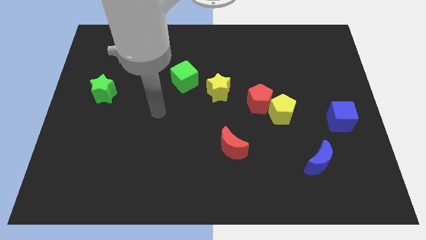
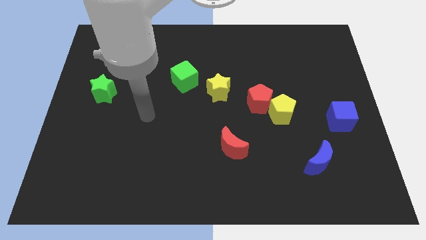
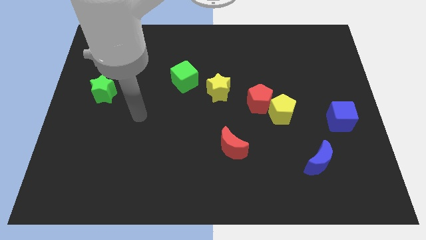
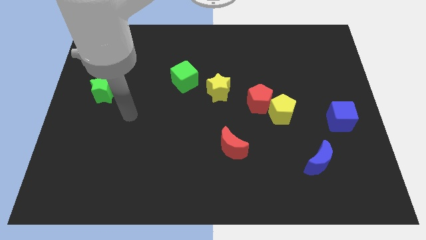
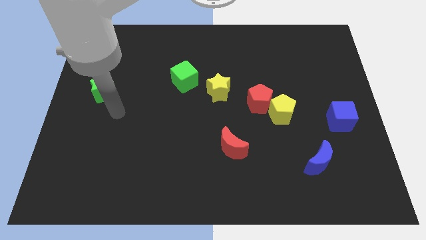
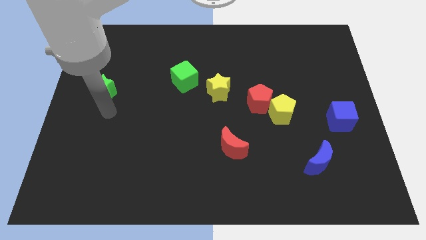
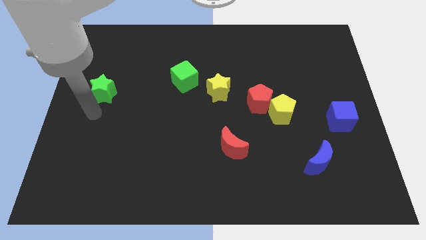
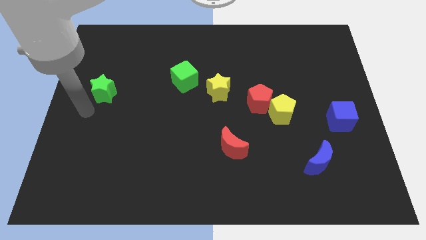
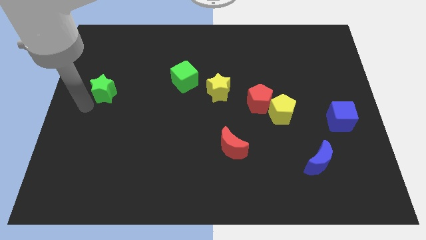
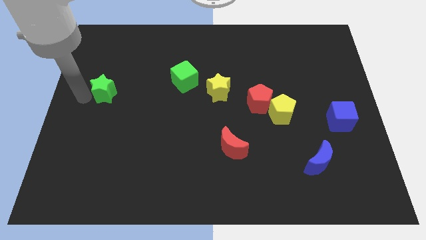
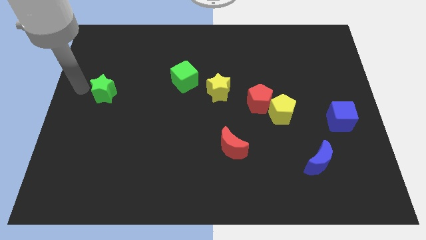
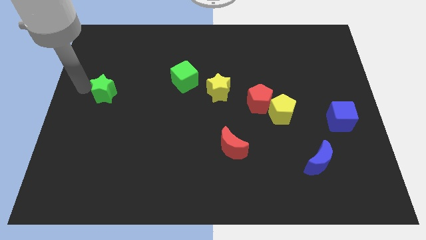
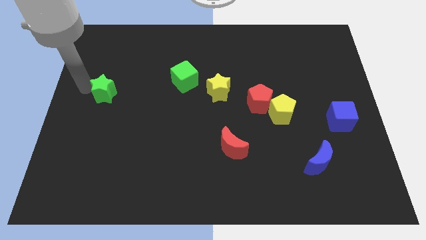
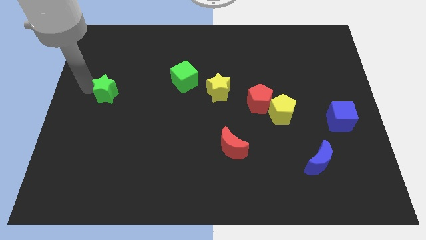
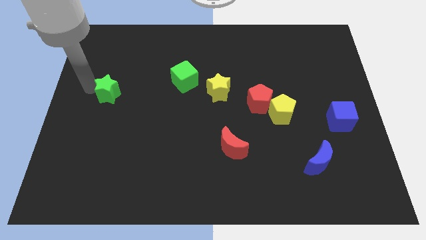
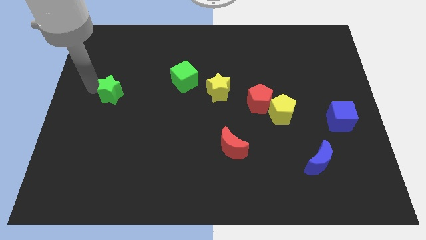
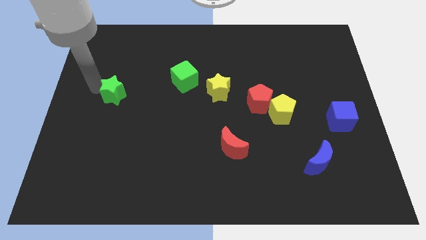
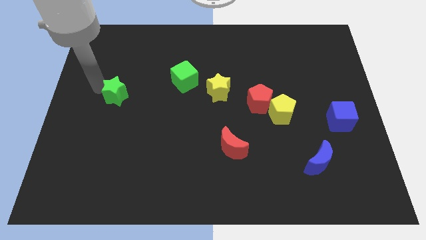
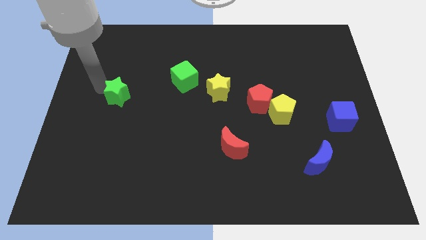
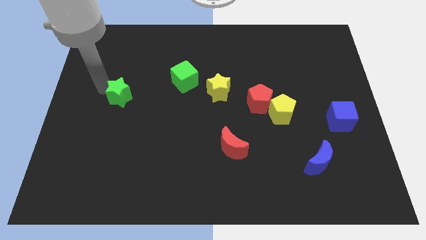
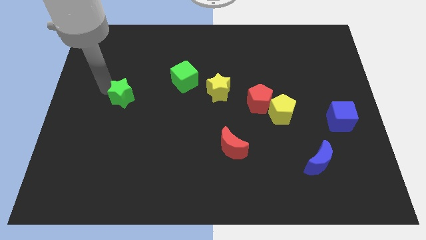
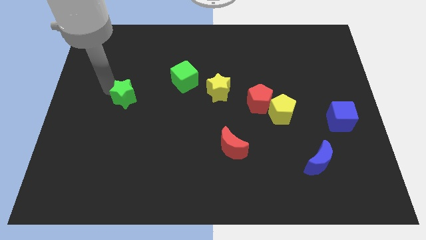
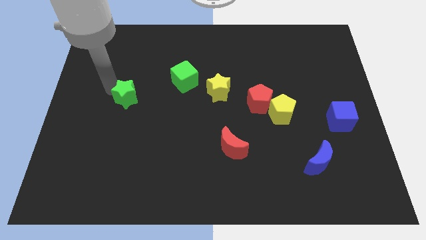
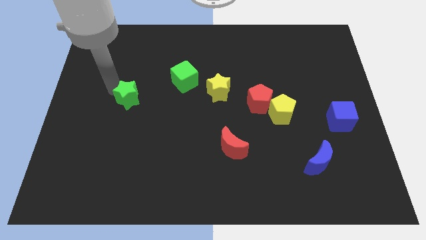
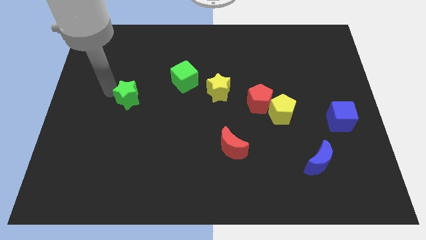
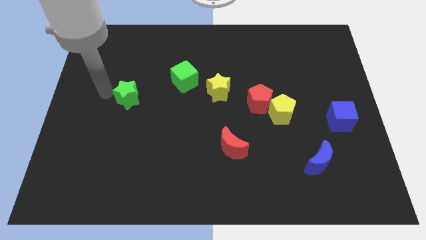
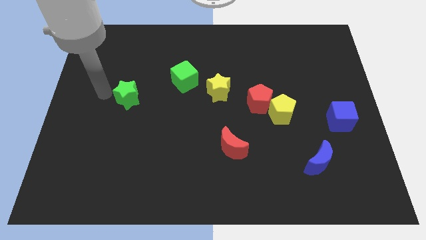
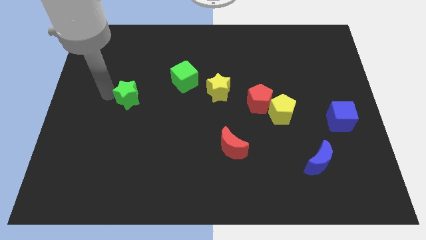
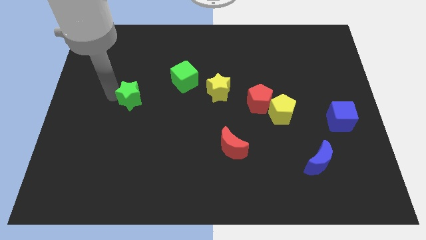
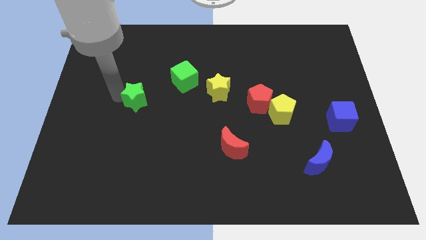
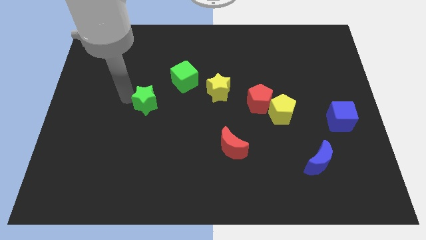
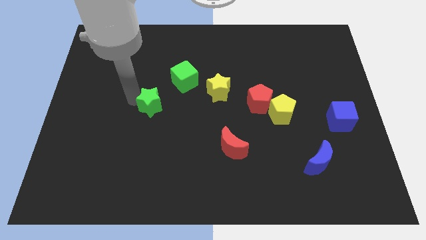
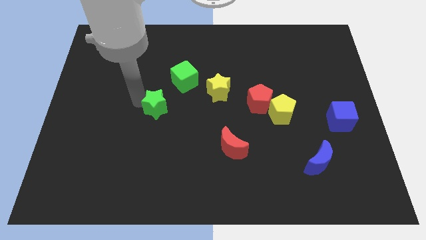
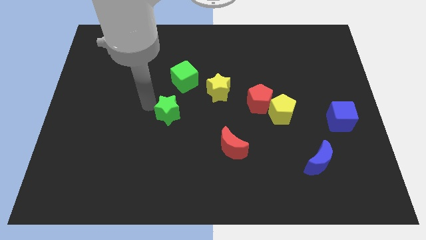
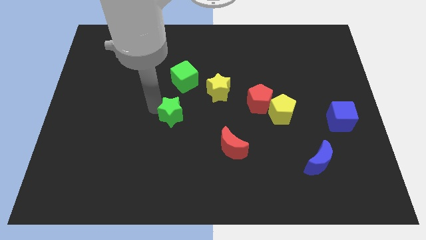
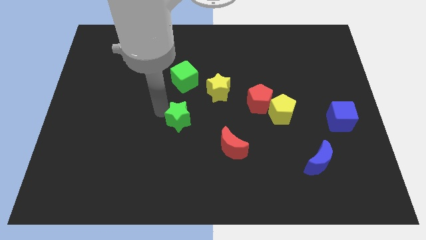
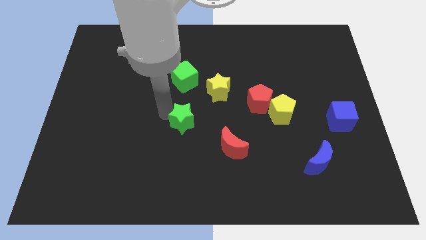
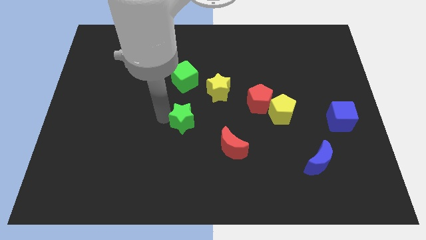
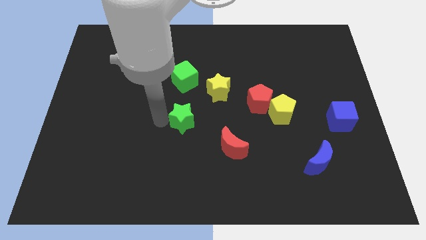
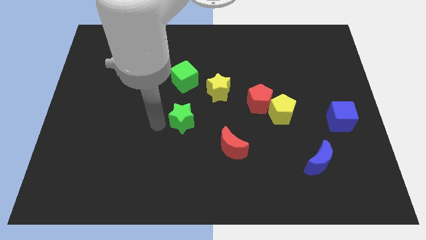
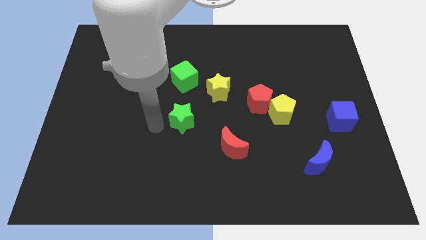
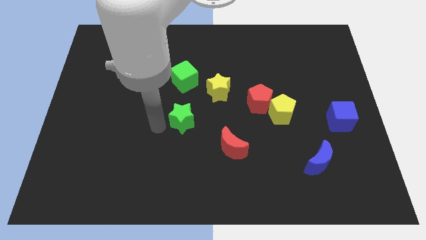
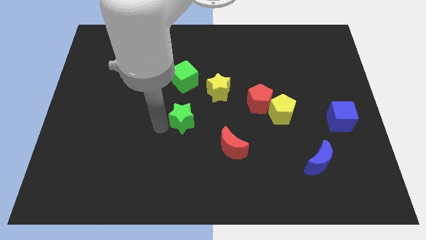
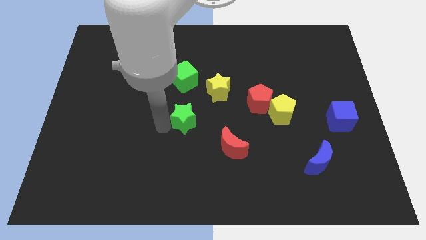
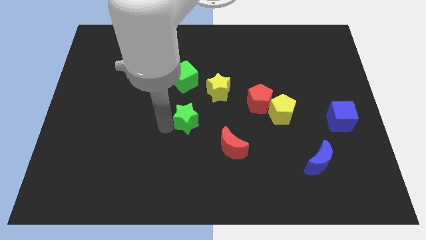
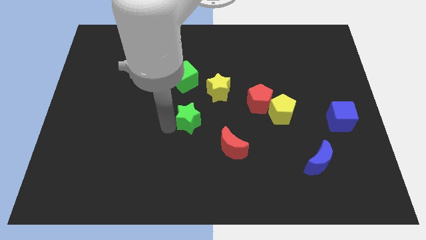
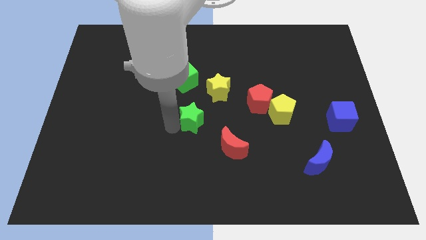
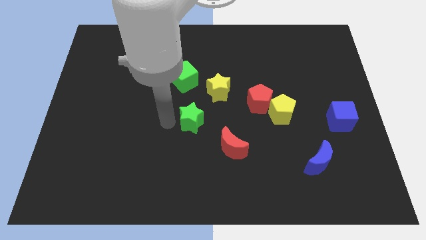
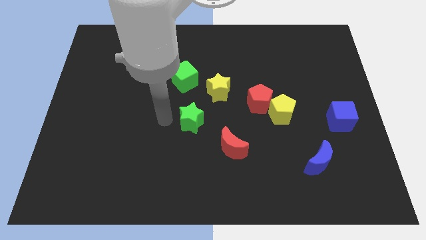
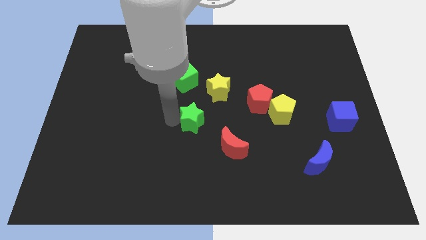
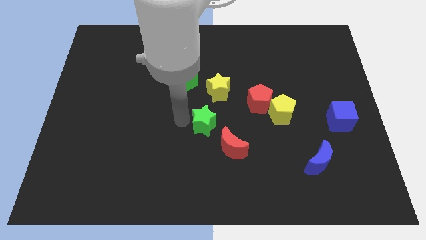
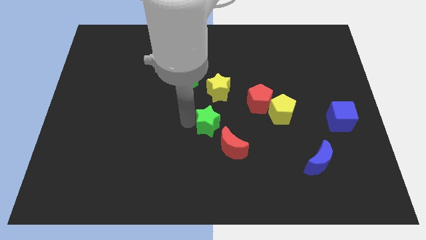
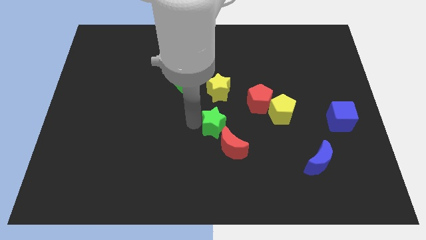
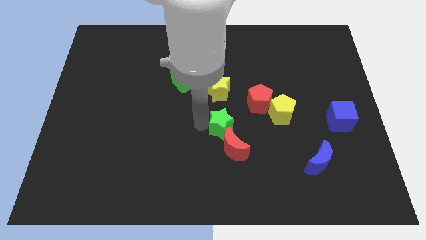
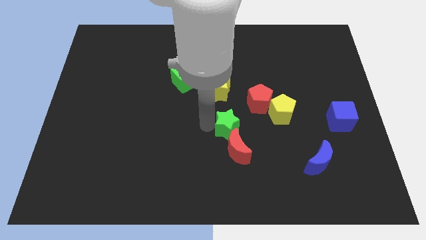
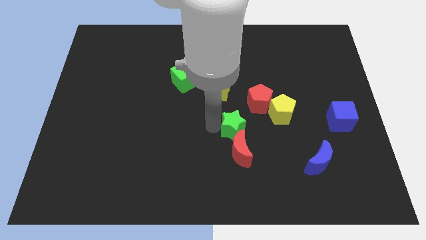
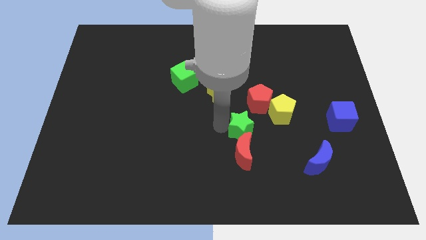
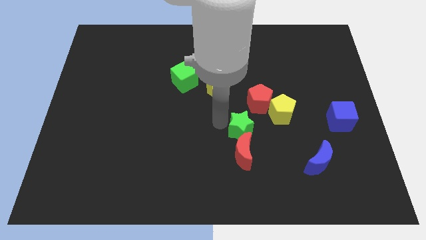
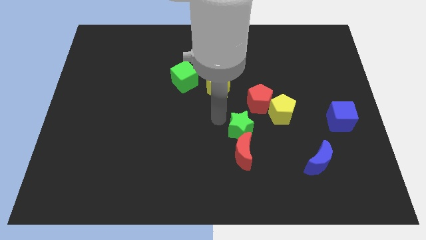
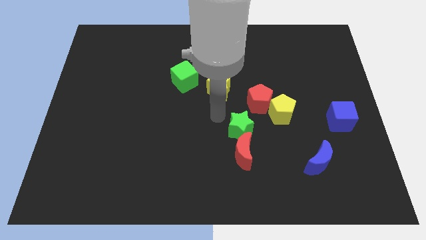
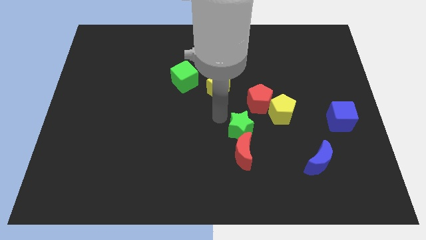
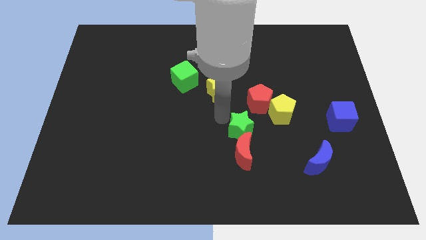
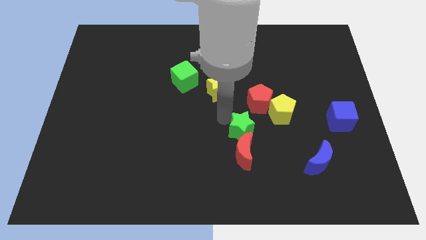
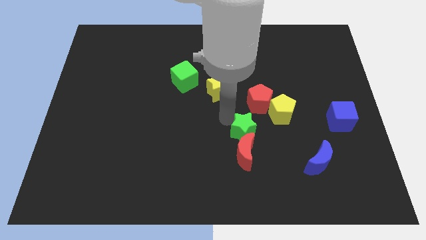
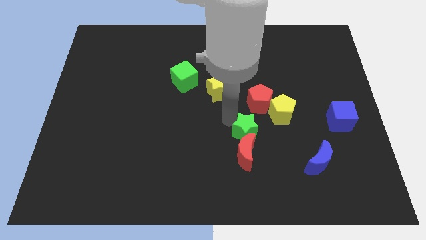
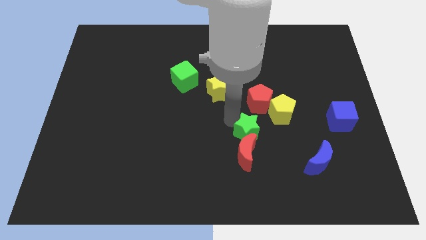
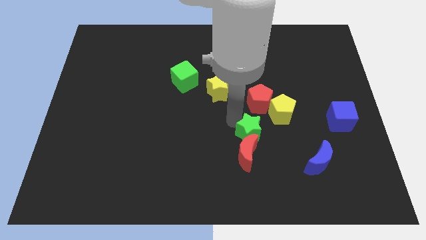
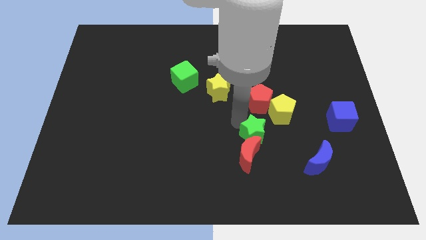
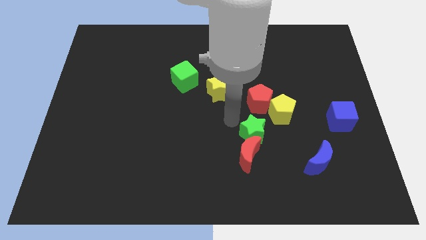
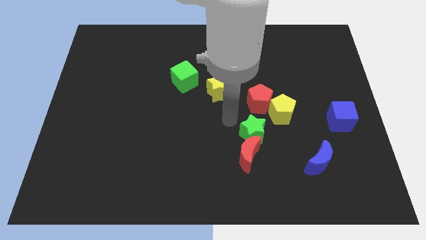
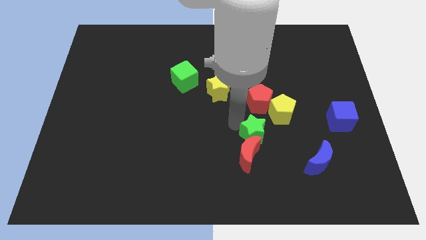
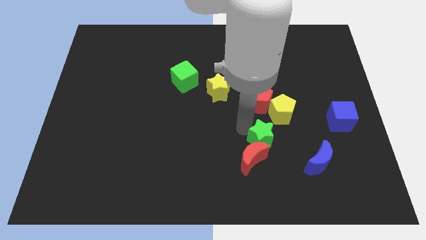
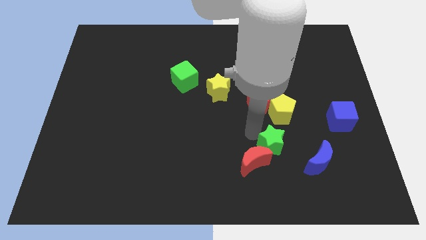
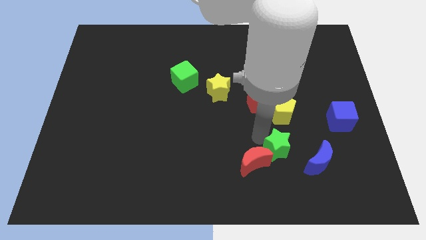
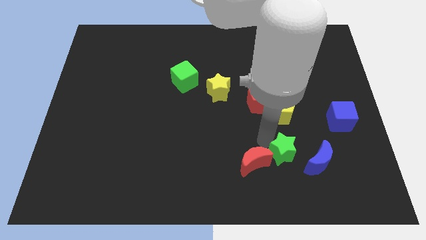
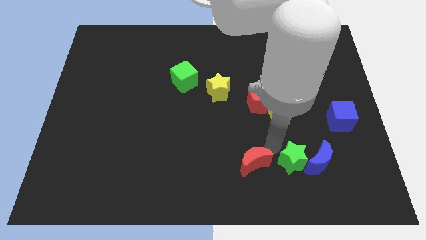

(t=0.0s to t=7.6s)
move the green star next to the blue moon

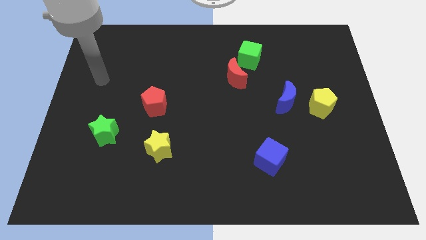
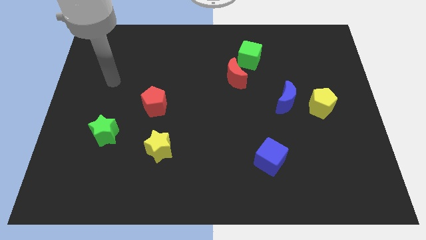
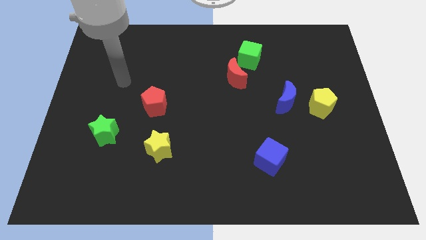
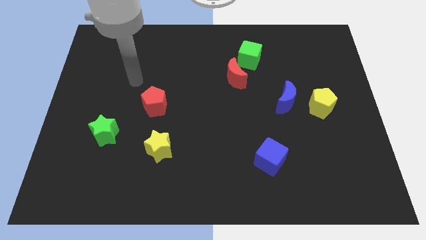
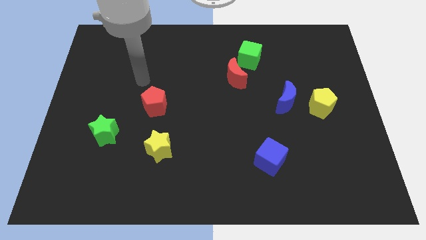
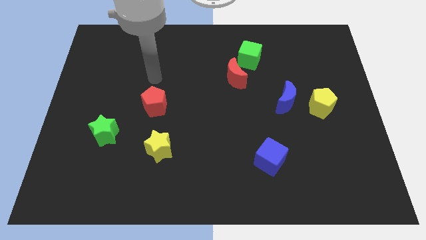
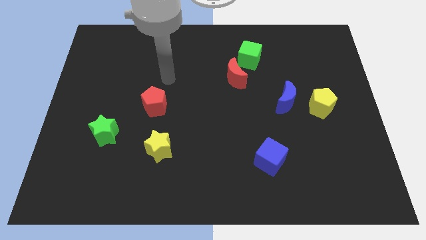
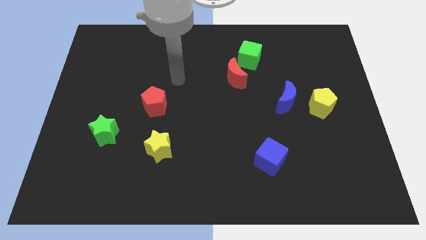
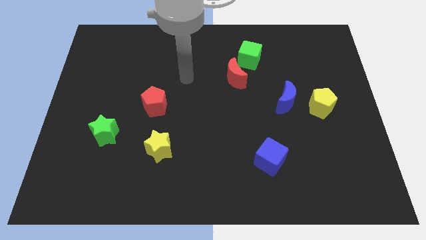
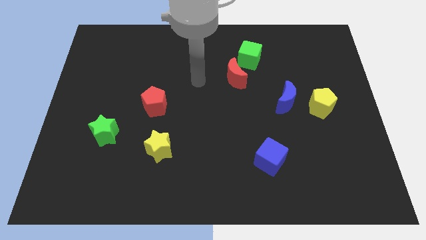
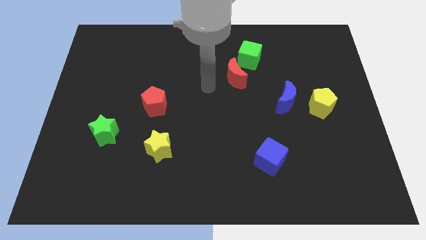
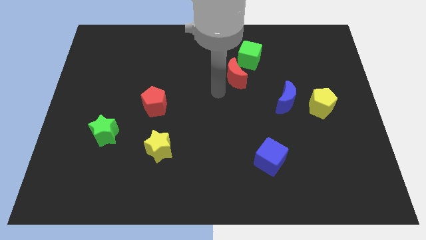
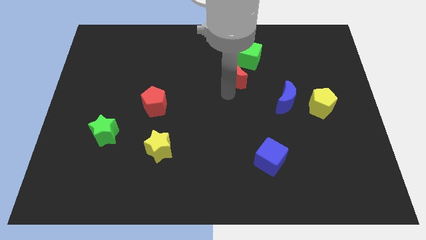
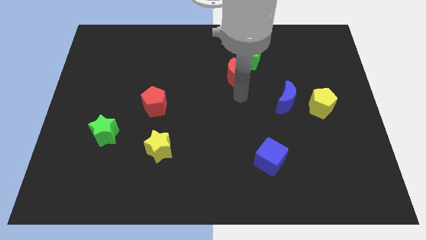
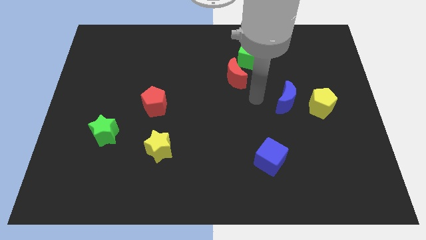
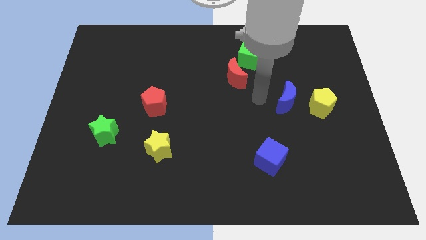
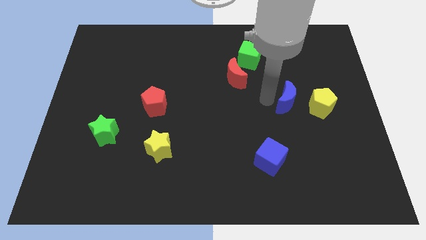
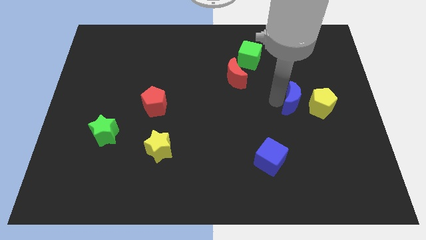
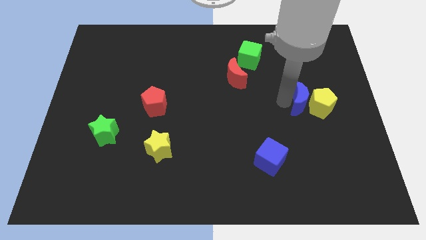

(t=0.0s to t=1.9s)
slide the blue moon towards the yellow pentagon
